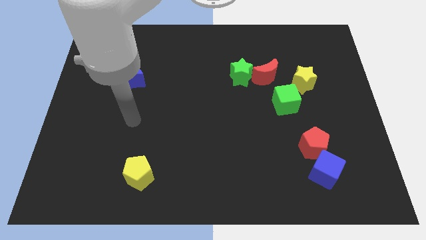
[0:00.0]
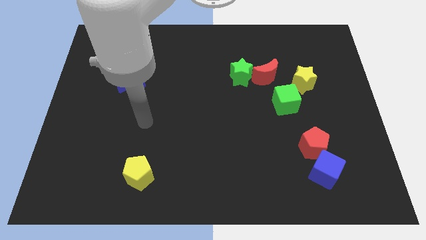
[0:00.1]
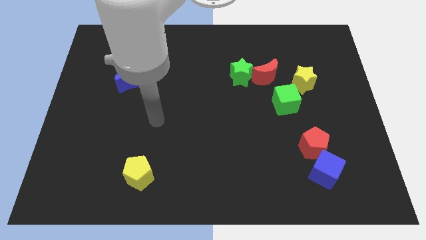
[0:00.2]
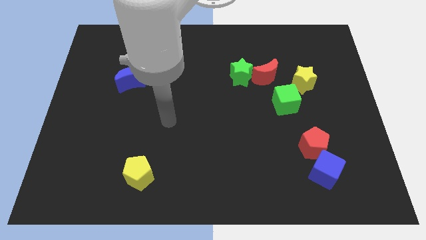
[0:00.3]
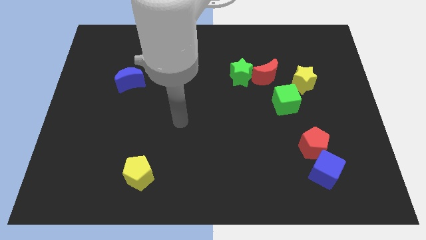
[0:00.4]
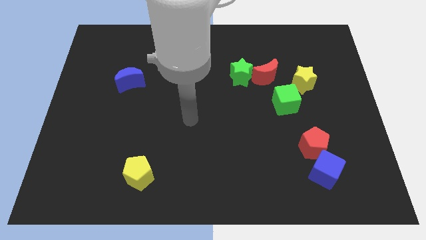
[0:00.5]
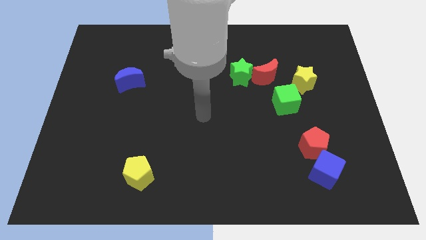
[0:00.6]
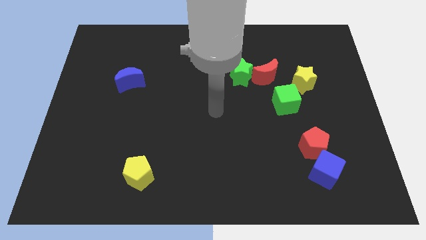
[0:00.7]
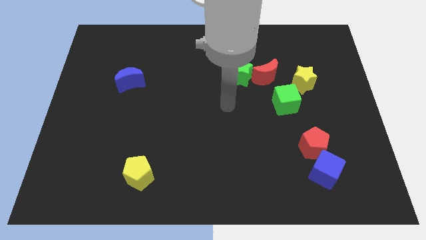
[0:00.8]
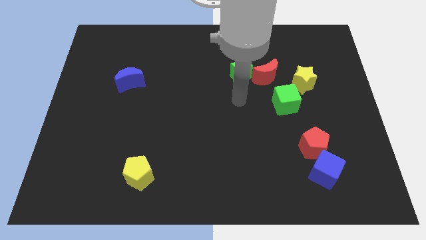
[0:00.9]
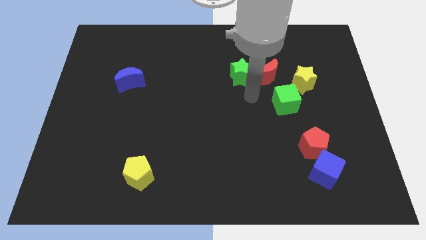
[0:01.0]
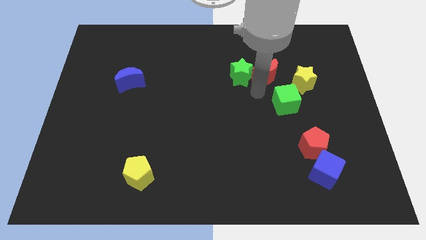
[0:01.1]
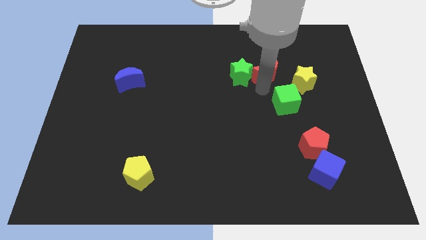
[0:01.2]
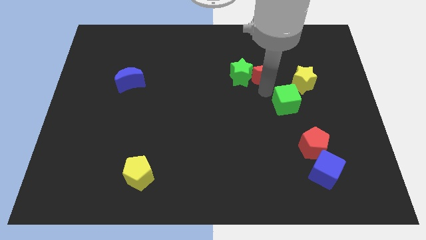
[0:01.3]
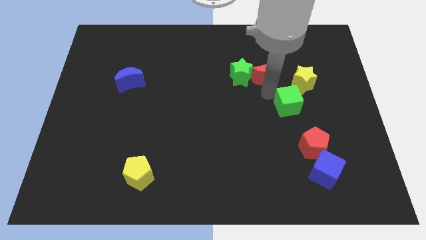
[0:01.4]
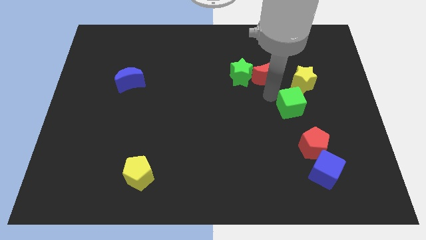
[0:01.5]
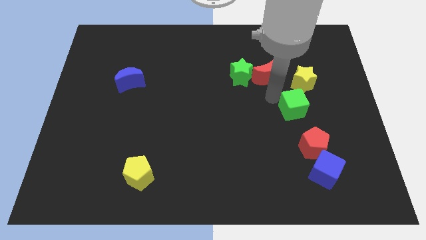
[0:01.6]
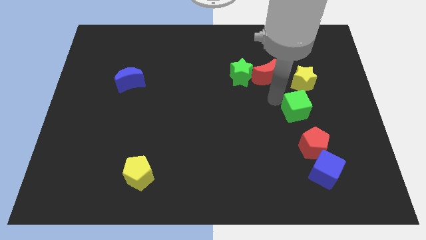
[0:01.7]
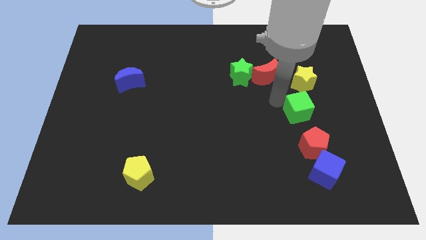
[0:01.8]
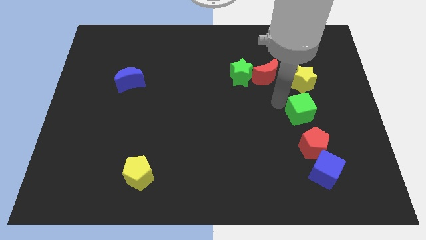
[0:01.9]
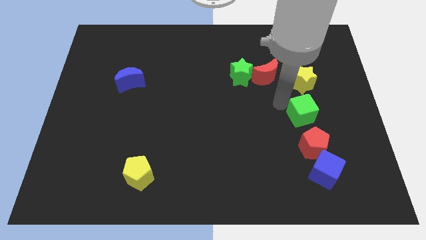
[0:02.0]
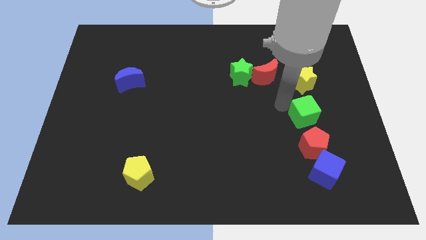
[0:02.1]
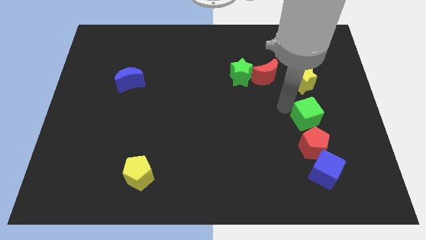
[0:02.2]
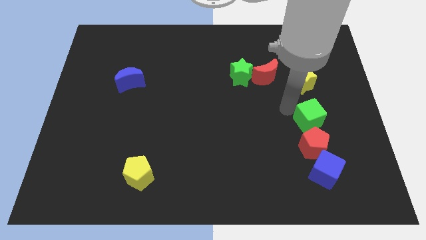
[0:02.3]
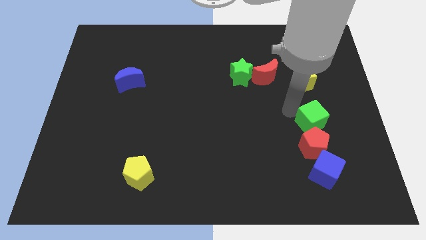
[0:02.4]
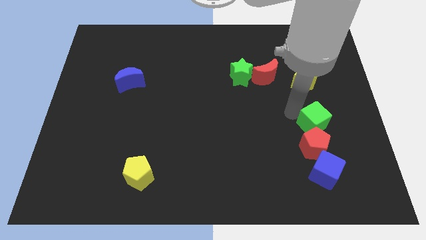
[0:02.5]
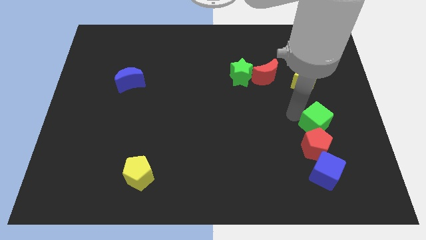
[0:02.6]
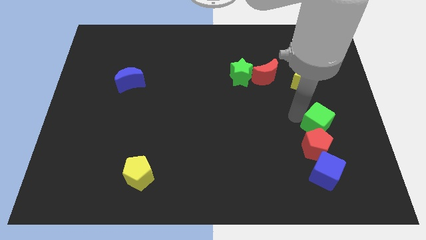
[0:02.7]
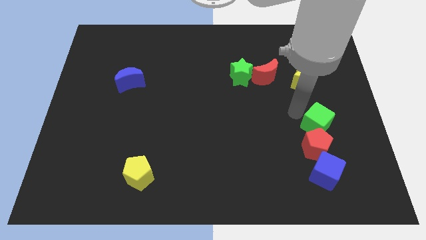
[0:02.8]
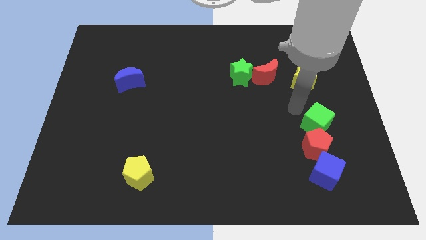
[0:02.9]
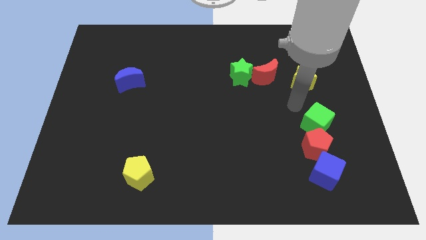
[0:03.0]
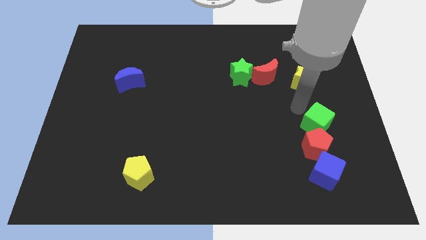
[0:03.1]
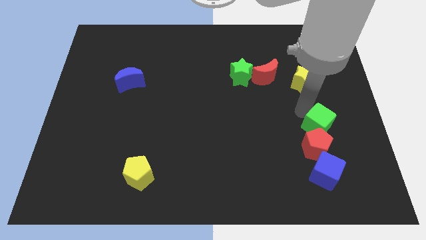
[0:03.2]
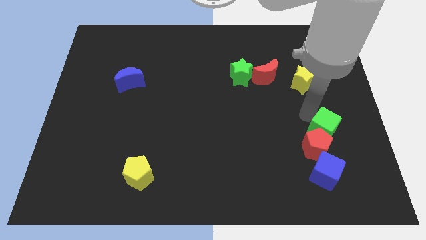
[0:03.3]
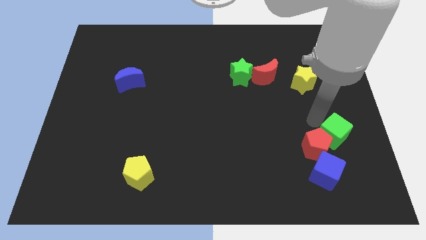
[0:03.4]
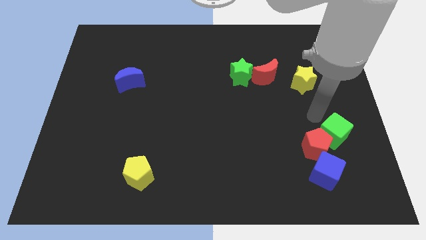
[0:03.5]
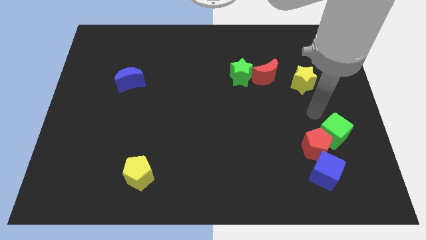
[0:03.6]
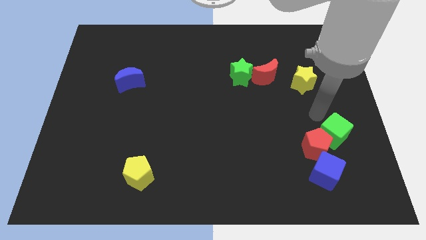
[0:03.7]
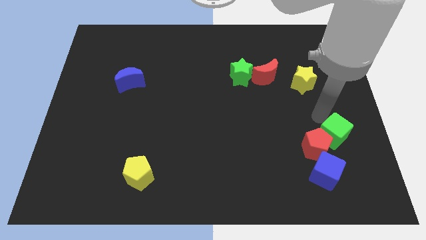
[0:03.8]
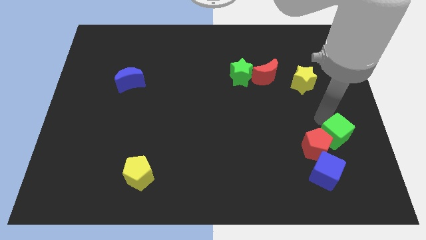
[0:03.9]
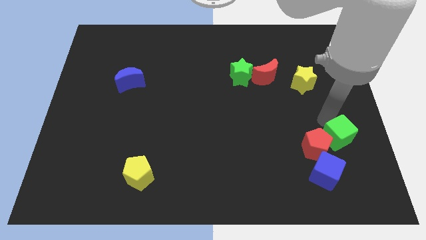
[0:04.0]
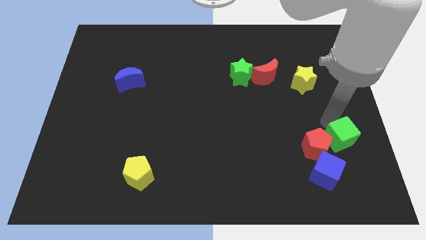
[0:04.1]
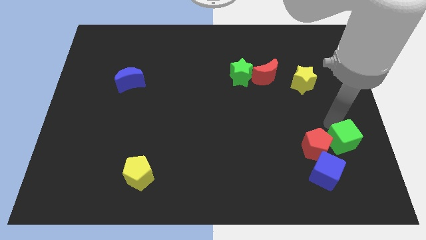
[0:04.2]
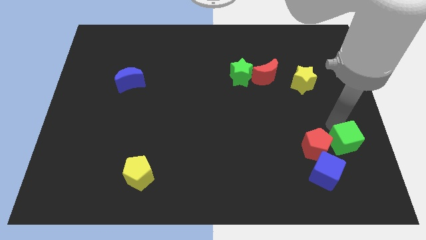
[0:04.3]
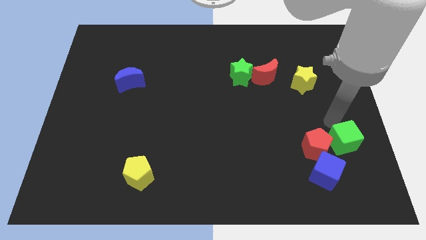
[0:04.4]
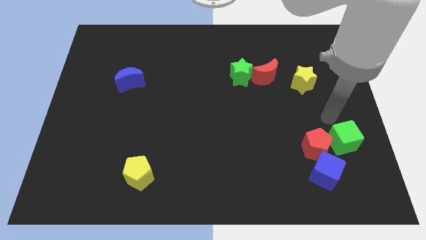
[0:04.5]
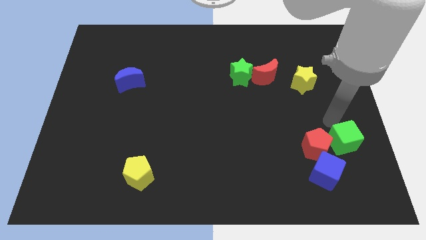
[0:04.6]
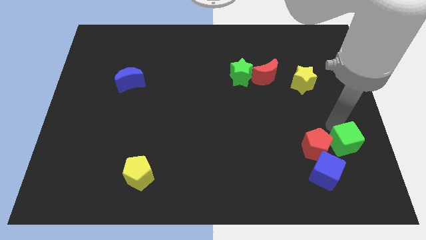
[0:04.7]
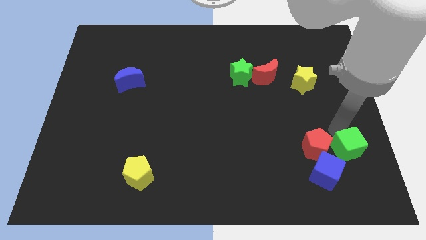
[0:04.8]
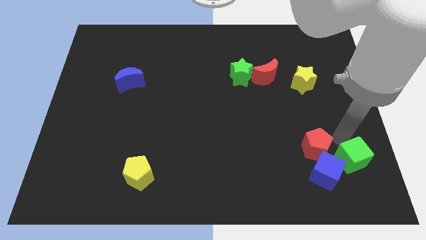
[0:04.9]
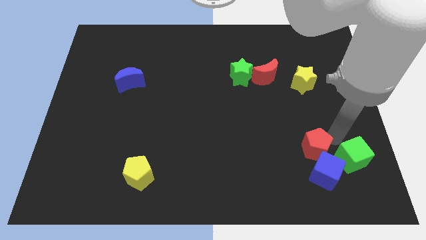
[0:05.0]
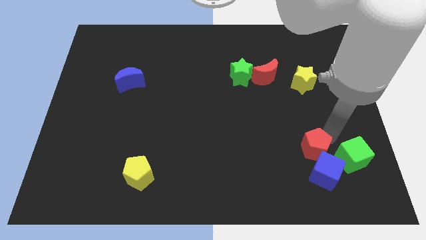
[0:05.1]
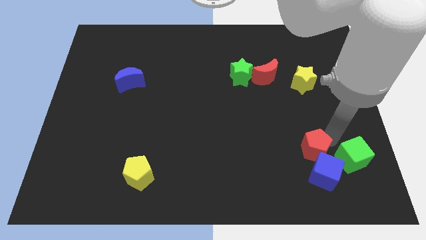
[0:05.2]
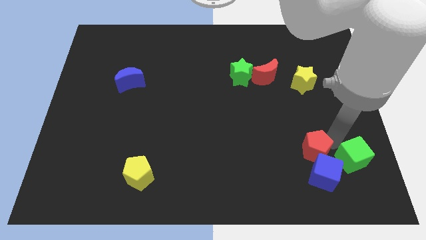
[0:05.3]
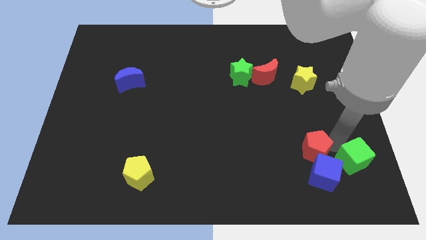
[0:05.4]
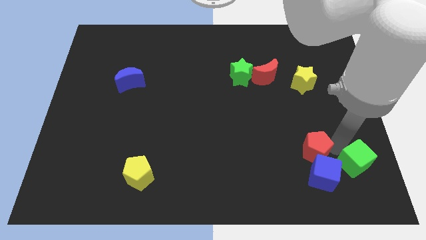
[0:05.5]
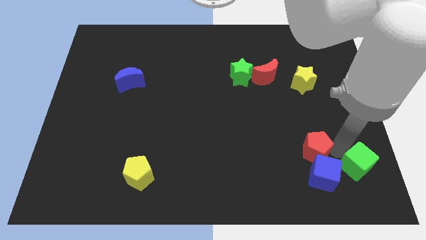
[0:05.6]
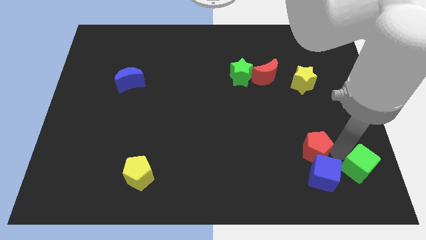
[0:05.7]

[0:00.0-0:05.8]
move the green cube to the bottom right corner

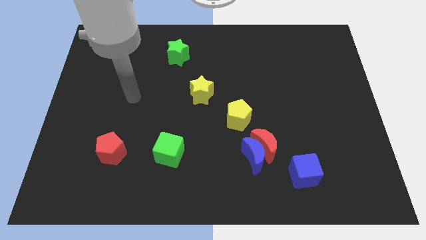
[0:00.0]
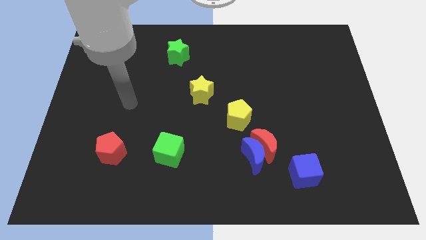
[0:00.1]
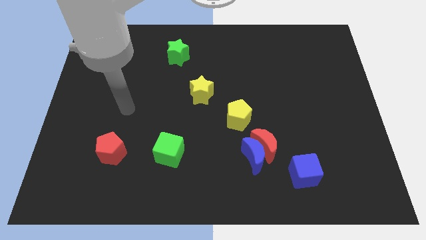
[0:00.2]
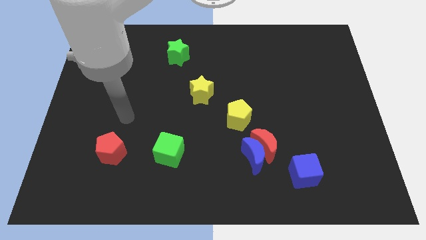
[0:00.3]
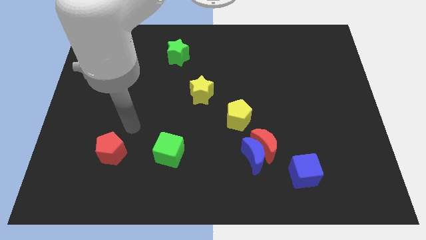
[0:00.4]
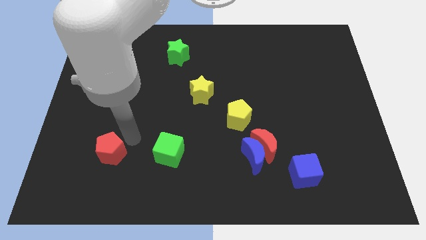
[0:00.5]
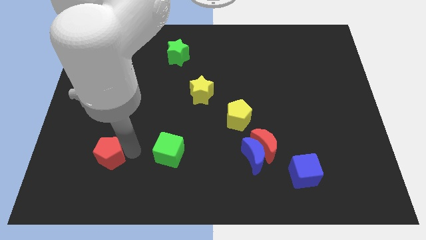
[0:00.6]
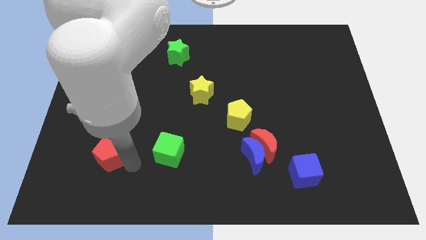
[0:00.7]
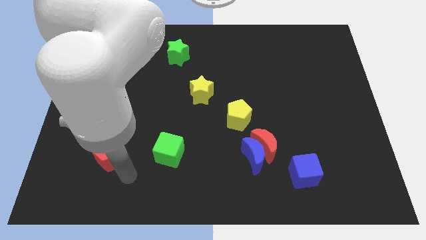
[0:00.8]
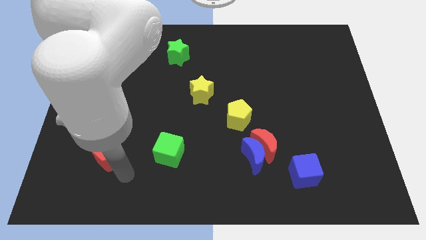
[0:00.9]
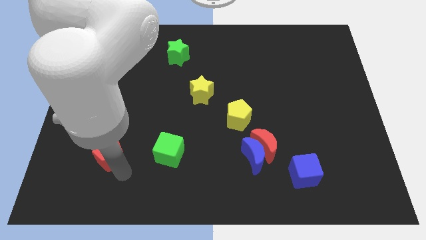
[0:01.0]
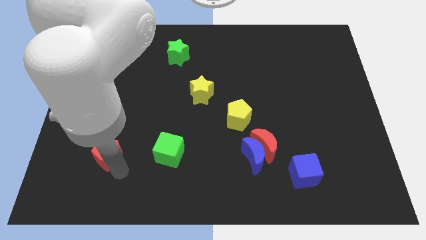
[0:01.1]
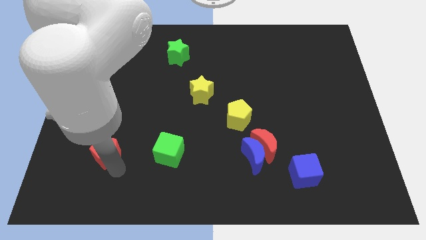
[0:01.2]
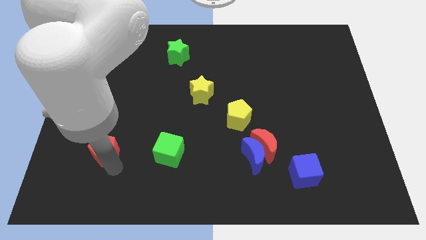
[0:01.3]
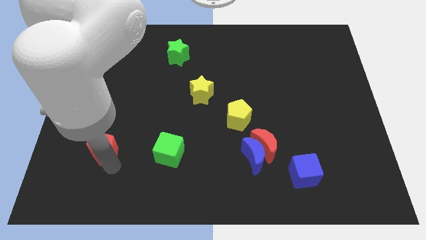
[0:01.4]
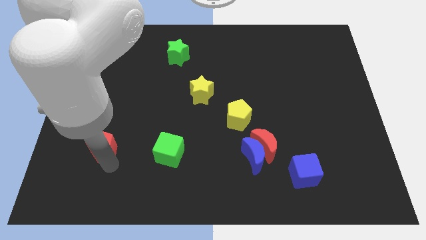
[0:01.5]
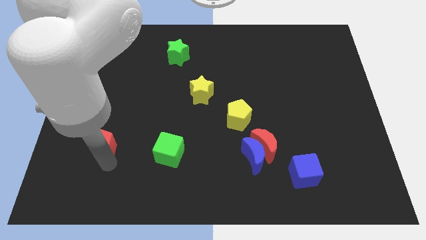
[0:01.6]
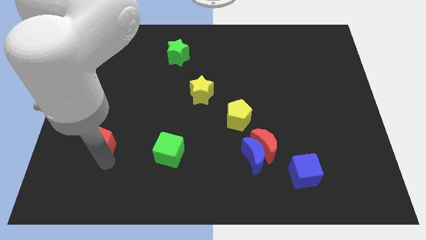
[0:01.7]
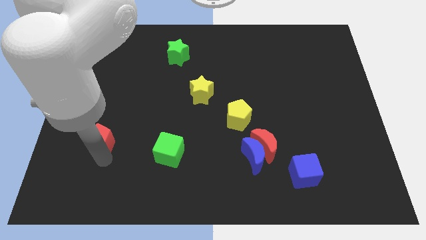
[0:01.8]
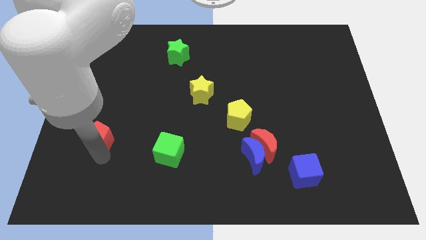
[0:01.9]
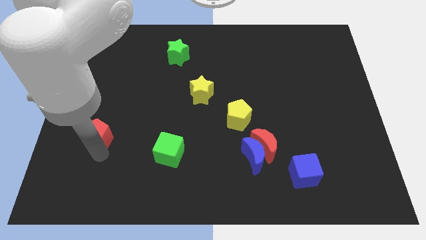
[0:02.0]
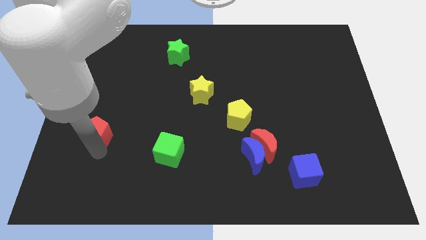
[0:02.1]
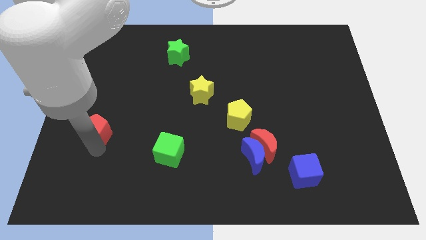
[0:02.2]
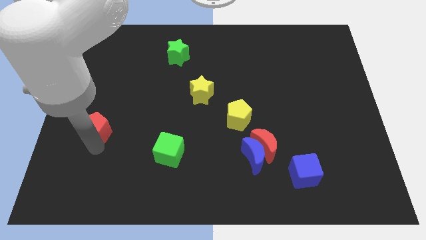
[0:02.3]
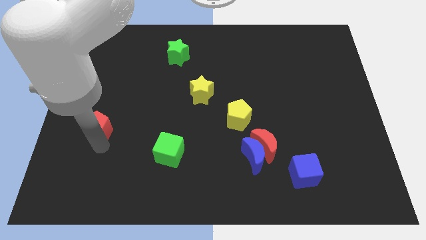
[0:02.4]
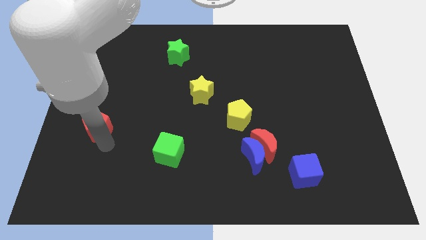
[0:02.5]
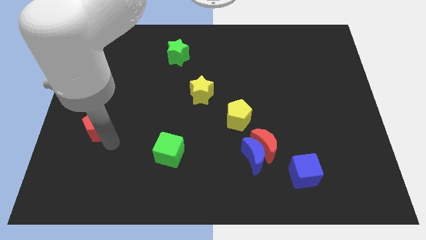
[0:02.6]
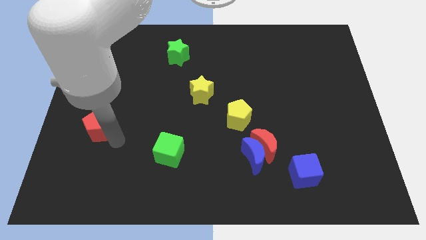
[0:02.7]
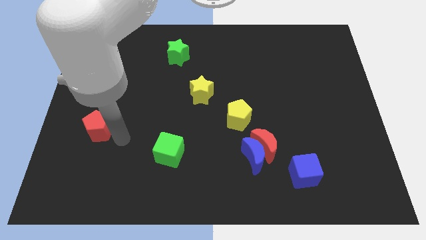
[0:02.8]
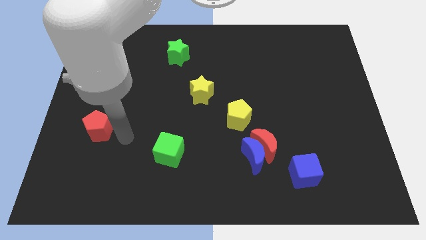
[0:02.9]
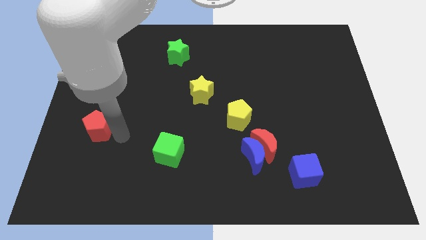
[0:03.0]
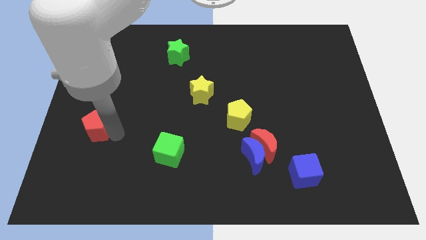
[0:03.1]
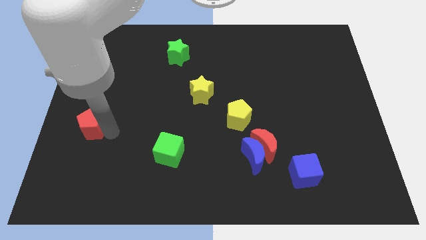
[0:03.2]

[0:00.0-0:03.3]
slide the red pentagon to the left side of the board
